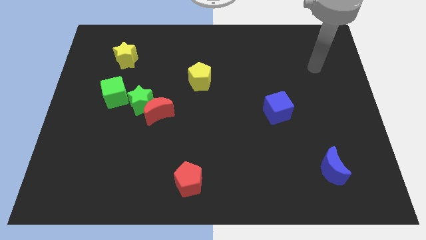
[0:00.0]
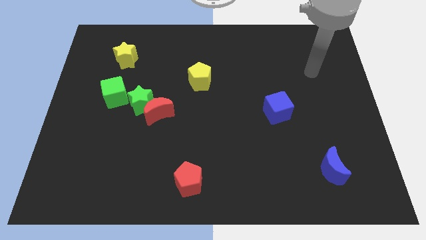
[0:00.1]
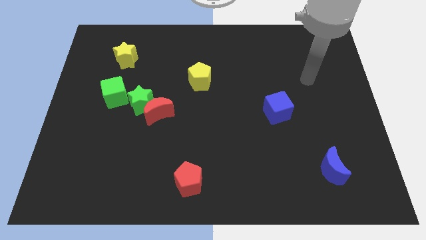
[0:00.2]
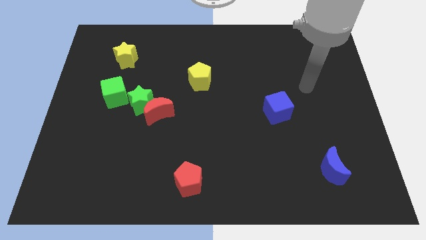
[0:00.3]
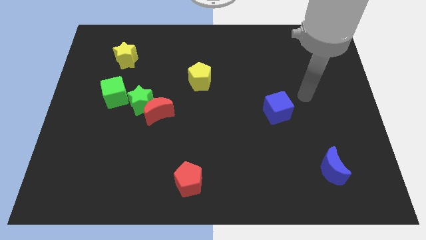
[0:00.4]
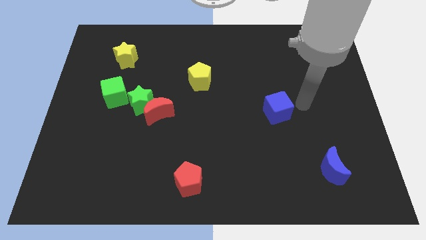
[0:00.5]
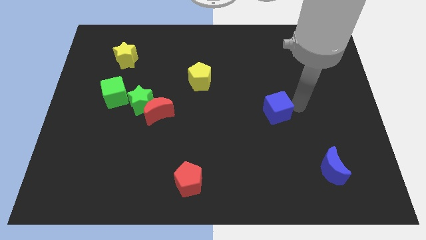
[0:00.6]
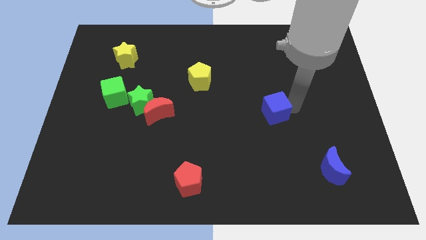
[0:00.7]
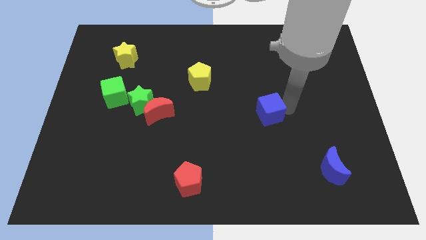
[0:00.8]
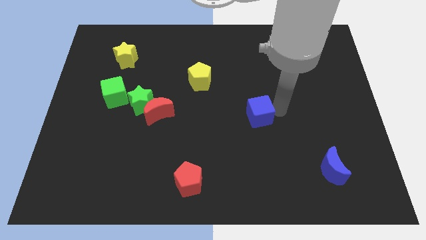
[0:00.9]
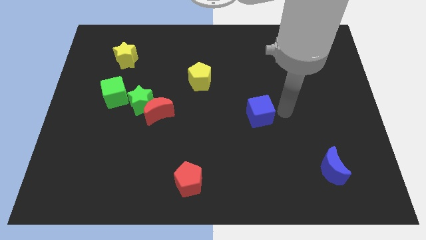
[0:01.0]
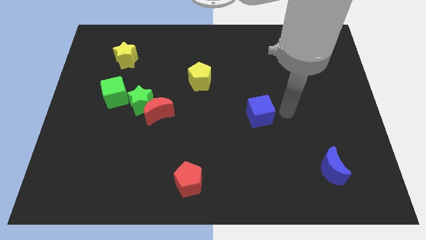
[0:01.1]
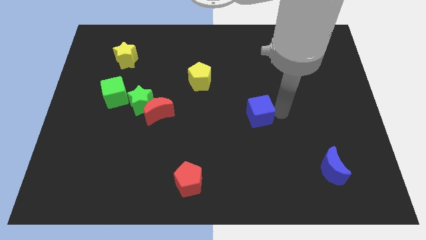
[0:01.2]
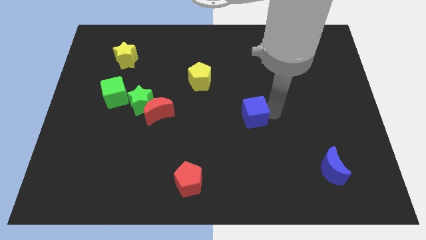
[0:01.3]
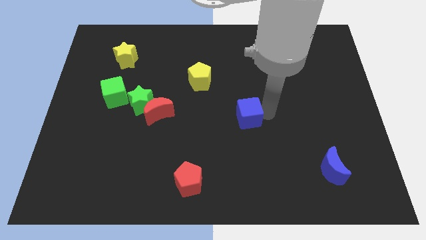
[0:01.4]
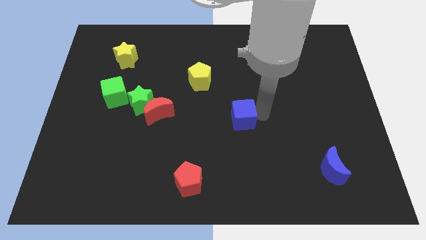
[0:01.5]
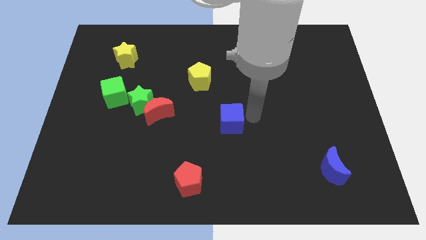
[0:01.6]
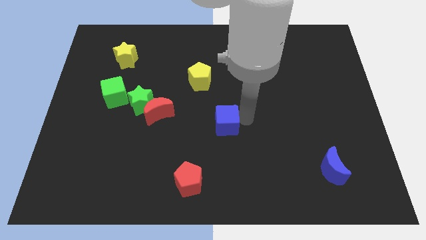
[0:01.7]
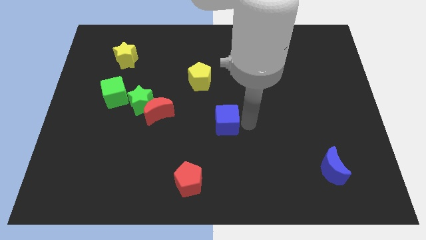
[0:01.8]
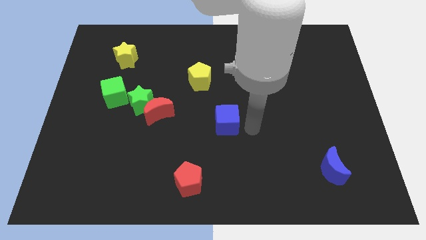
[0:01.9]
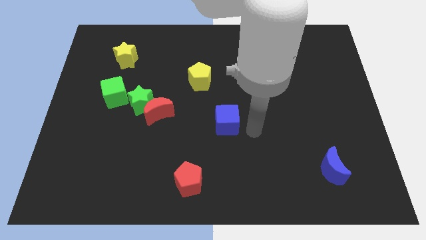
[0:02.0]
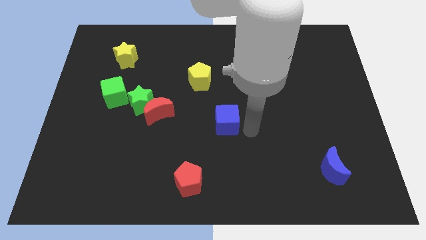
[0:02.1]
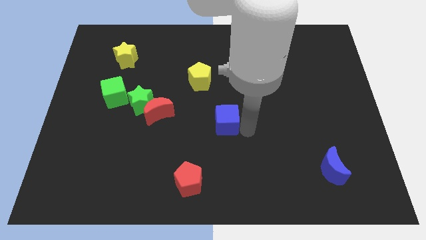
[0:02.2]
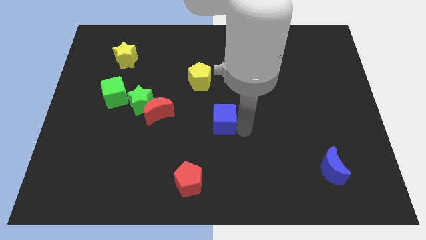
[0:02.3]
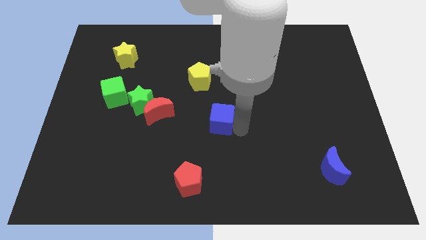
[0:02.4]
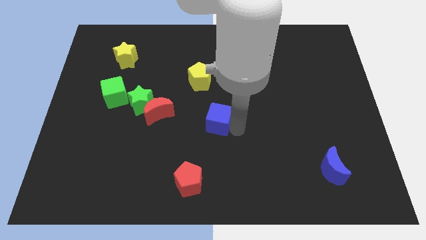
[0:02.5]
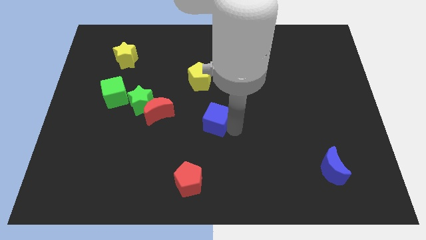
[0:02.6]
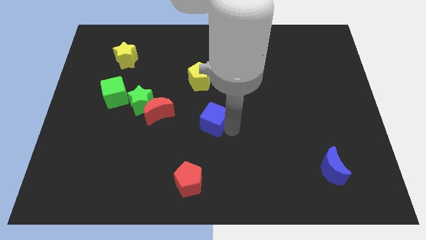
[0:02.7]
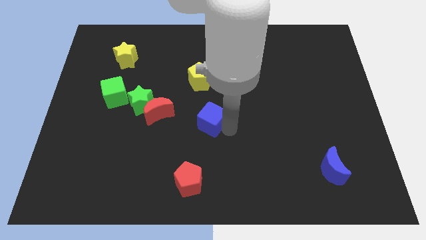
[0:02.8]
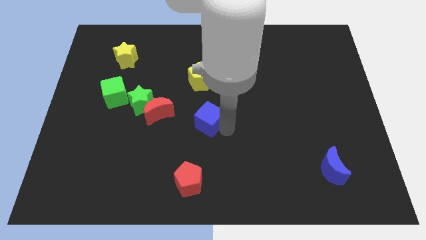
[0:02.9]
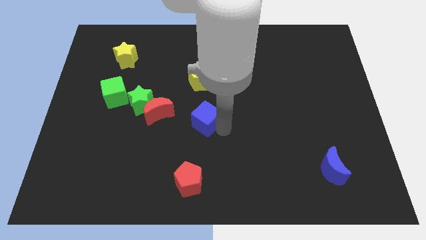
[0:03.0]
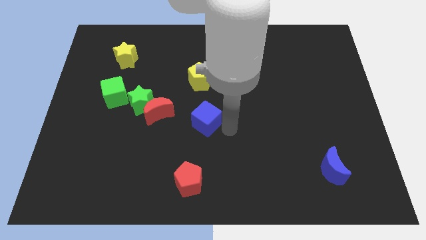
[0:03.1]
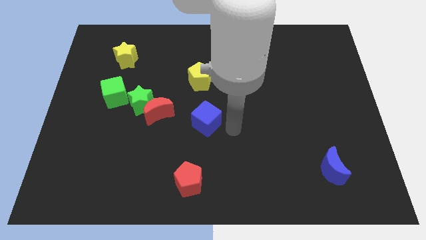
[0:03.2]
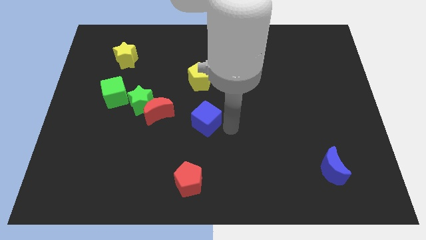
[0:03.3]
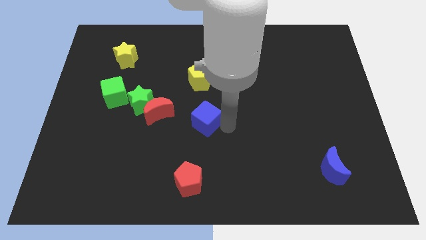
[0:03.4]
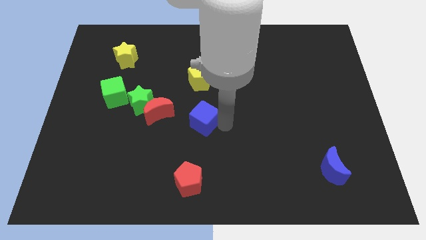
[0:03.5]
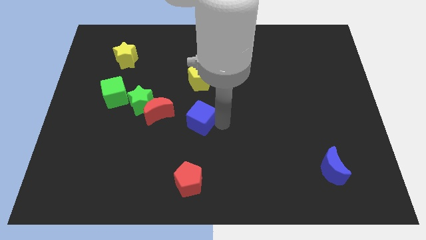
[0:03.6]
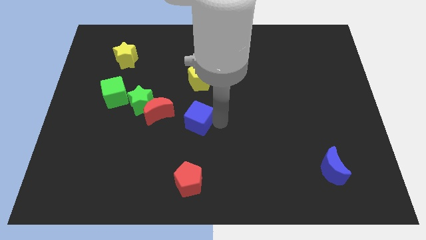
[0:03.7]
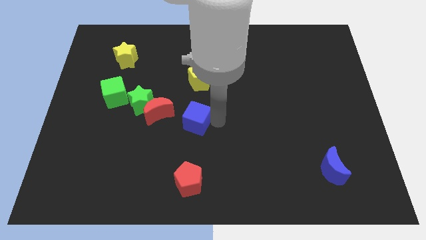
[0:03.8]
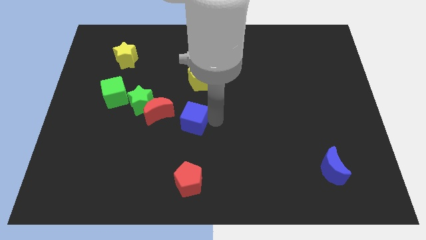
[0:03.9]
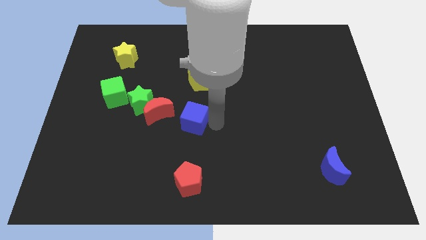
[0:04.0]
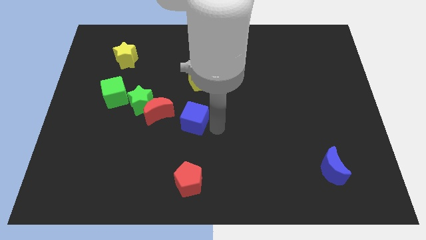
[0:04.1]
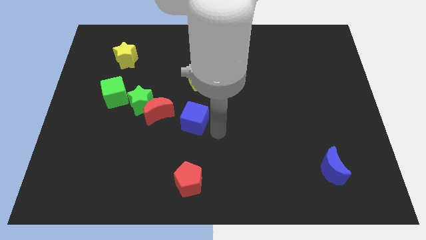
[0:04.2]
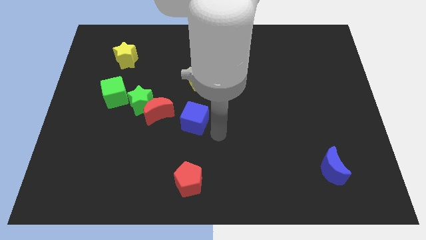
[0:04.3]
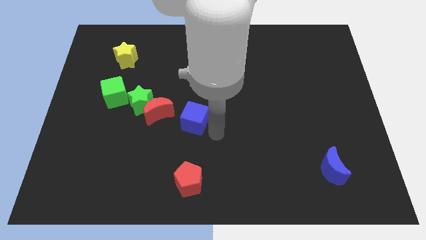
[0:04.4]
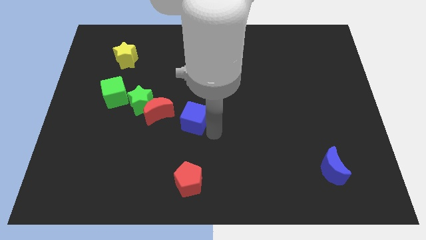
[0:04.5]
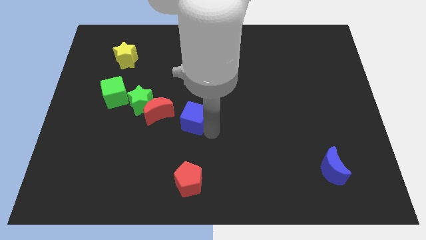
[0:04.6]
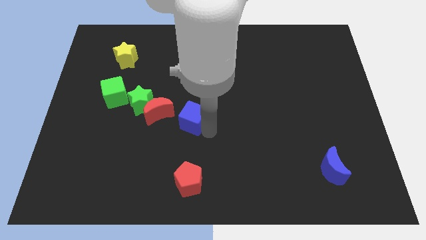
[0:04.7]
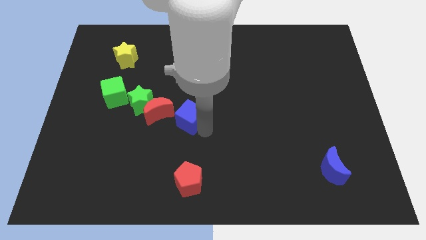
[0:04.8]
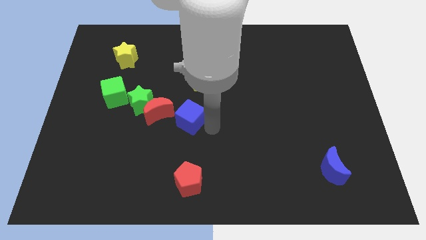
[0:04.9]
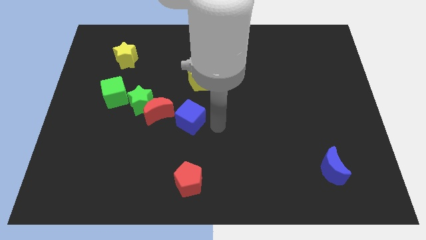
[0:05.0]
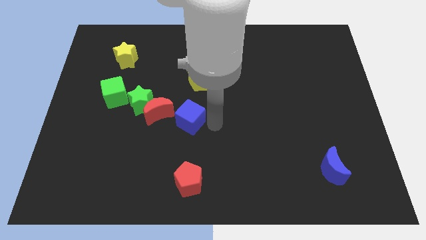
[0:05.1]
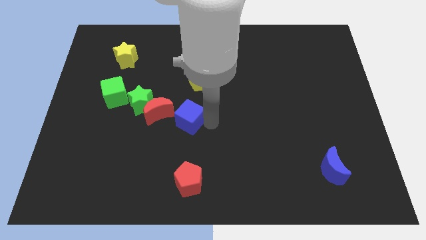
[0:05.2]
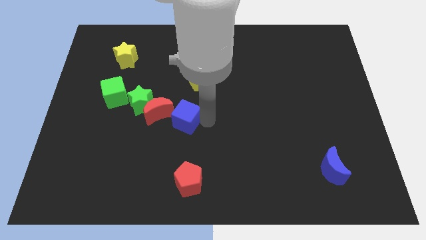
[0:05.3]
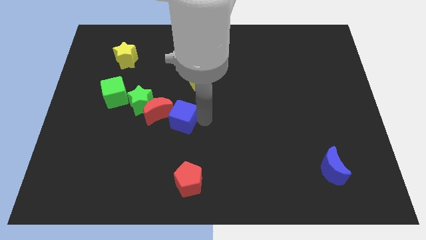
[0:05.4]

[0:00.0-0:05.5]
push the blue cube next to the red moon

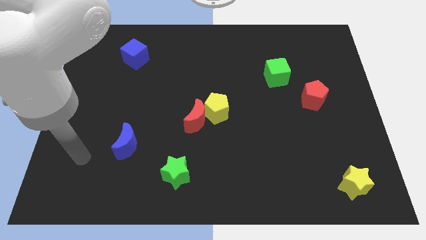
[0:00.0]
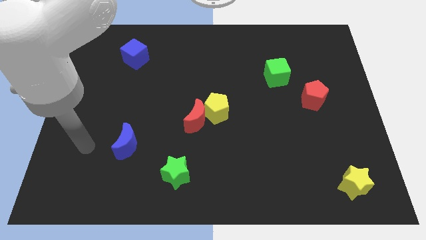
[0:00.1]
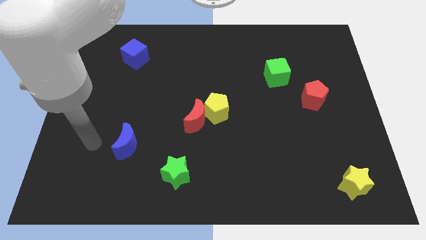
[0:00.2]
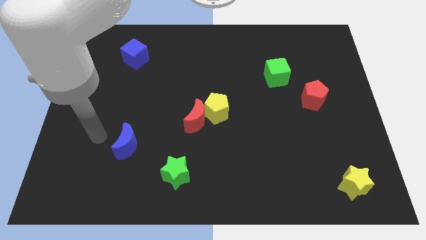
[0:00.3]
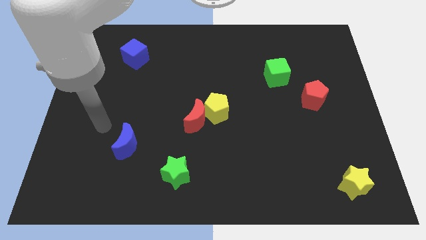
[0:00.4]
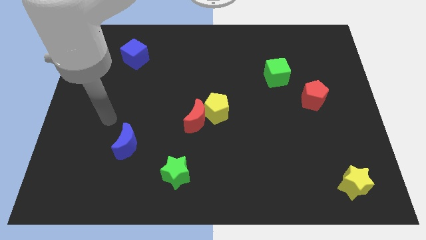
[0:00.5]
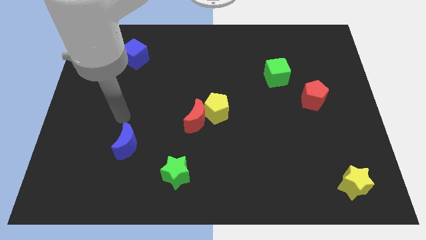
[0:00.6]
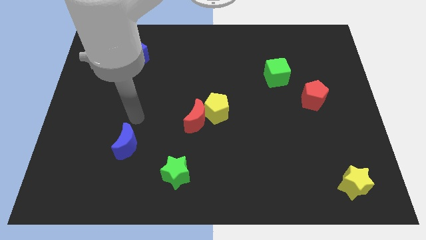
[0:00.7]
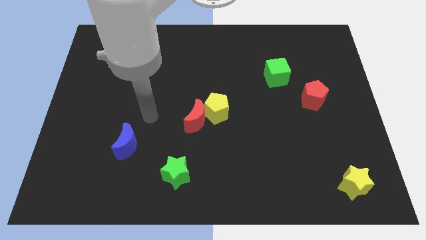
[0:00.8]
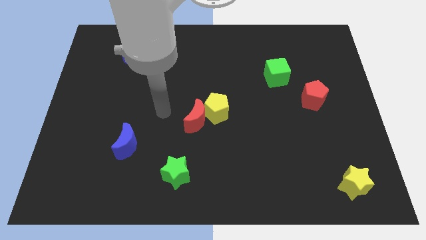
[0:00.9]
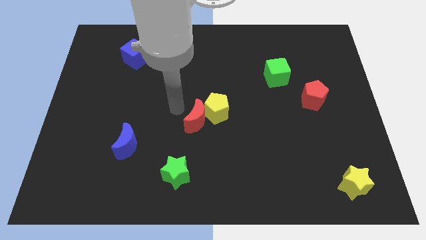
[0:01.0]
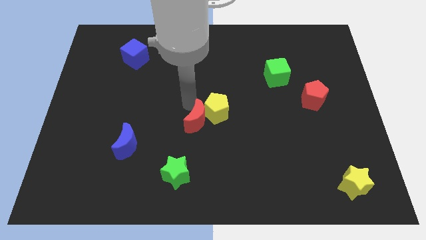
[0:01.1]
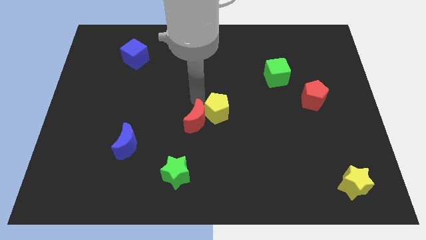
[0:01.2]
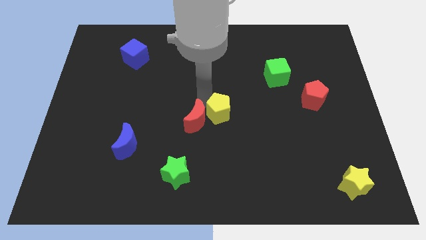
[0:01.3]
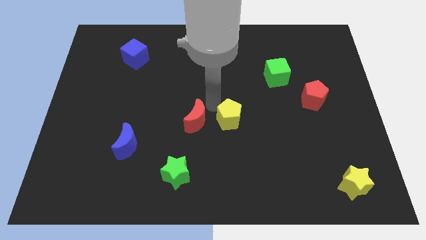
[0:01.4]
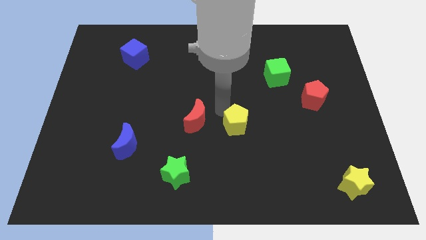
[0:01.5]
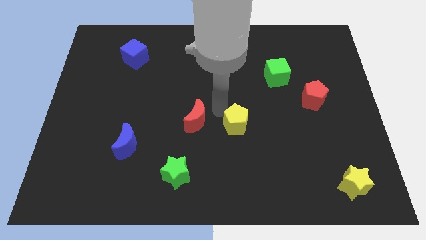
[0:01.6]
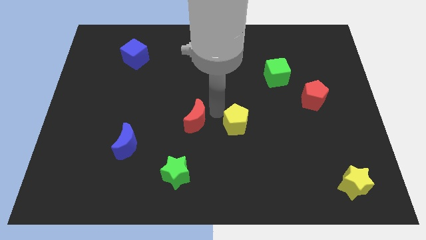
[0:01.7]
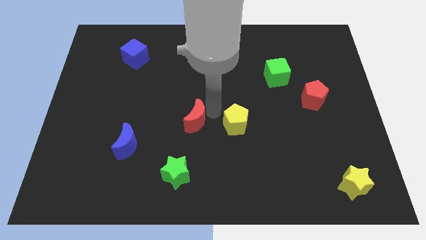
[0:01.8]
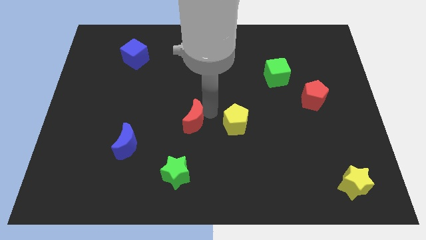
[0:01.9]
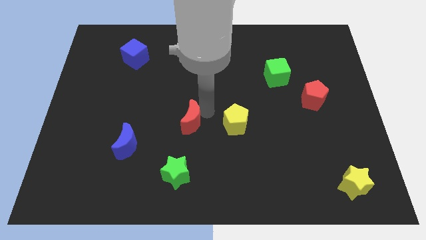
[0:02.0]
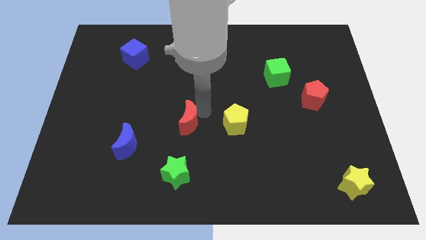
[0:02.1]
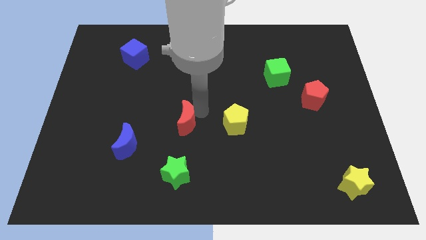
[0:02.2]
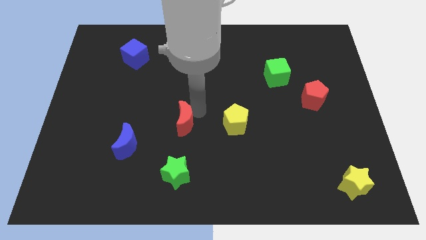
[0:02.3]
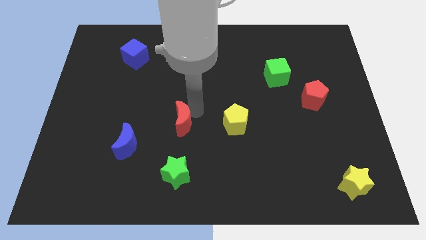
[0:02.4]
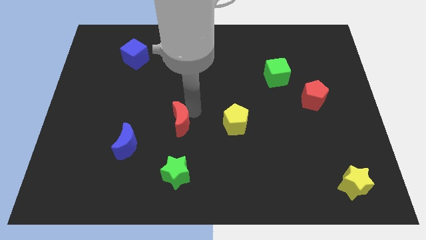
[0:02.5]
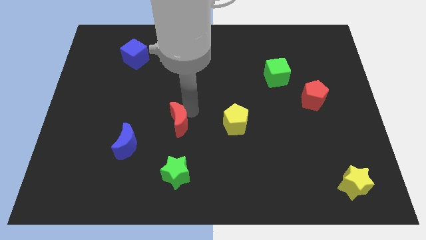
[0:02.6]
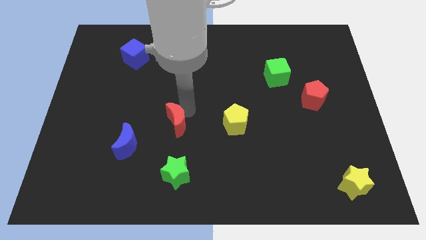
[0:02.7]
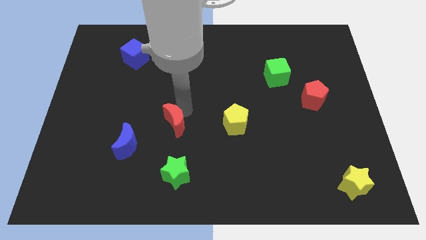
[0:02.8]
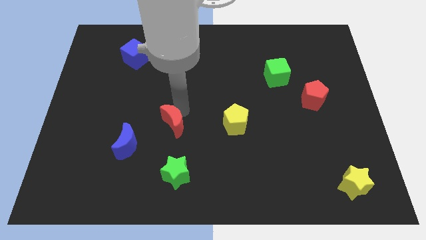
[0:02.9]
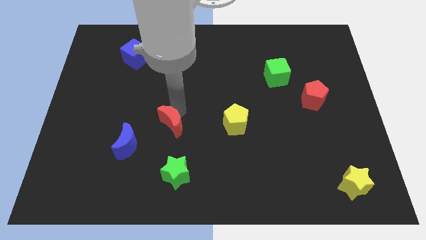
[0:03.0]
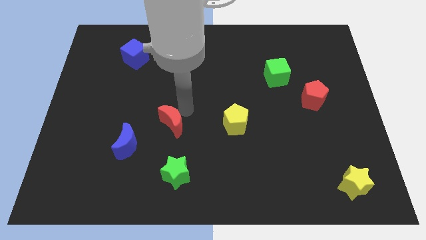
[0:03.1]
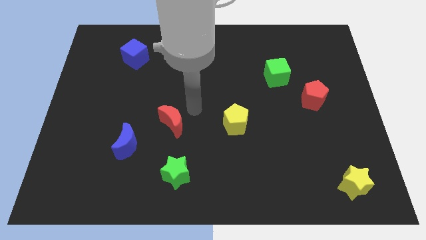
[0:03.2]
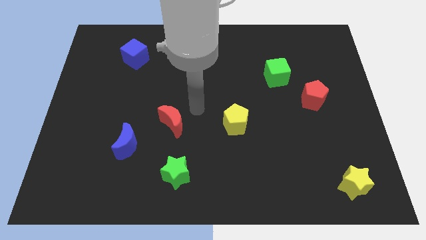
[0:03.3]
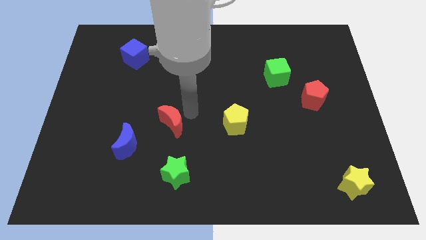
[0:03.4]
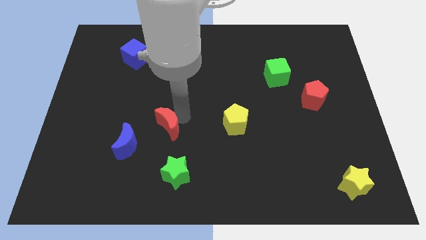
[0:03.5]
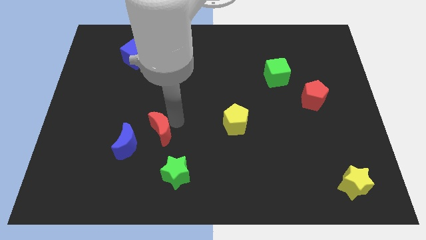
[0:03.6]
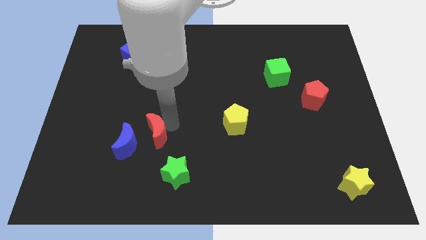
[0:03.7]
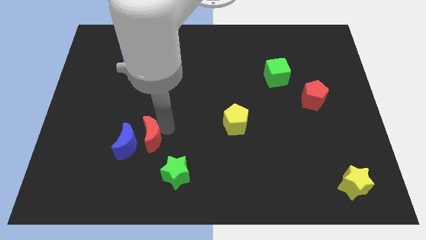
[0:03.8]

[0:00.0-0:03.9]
slide the red moon close to the blue moon
